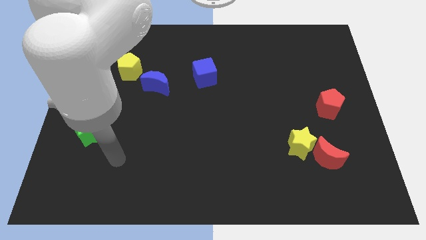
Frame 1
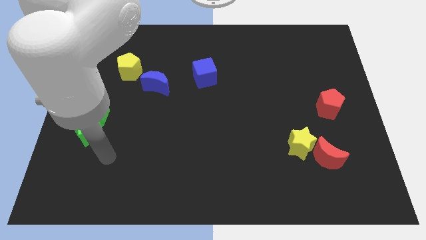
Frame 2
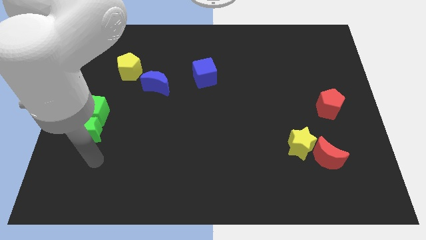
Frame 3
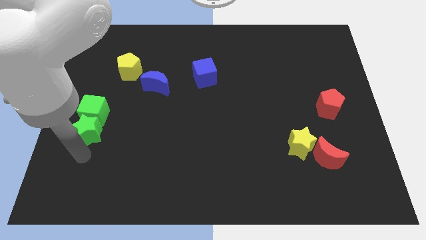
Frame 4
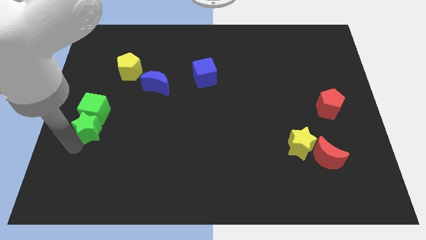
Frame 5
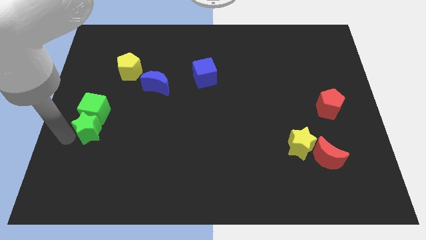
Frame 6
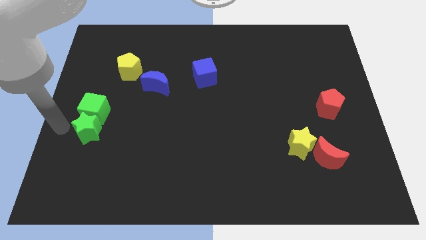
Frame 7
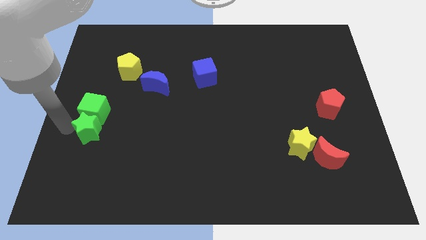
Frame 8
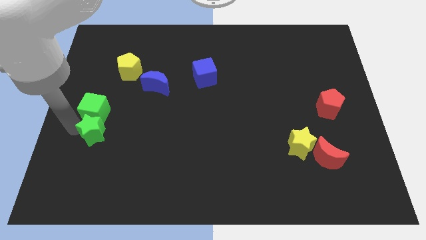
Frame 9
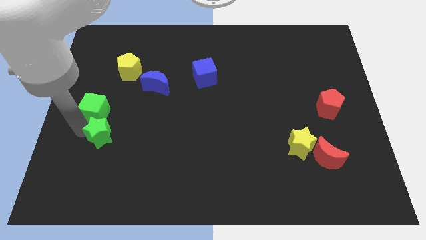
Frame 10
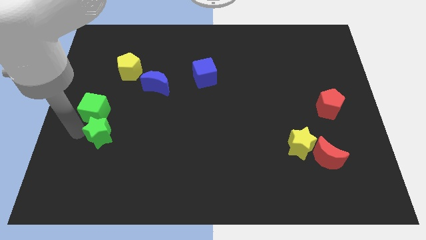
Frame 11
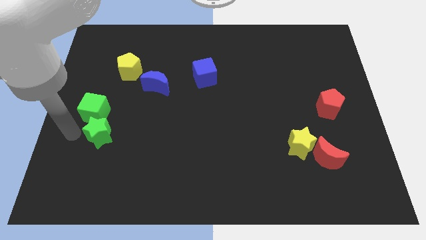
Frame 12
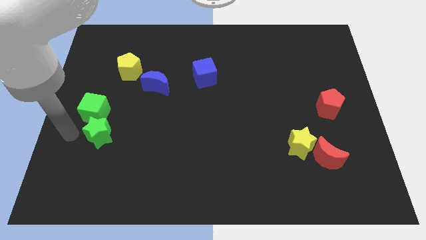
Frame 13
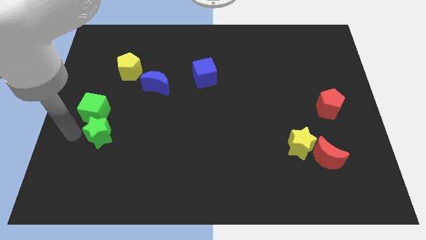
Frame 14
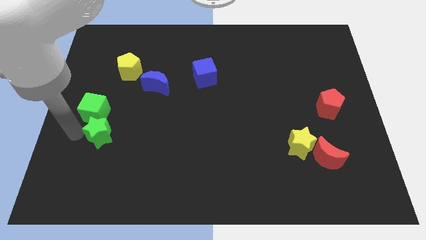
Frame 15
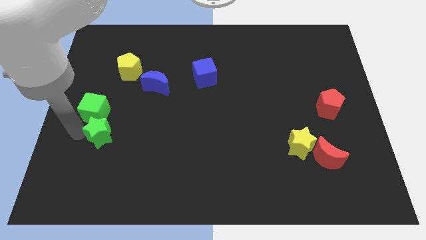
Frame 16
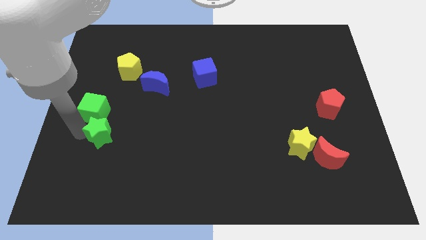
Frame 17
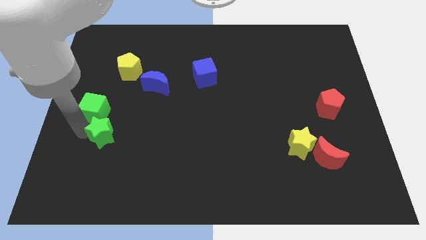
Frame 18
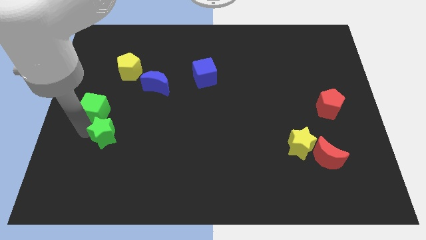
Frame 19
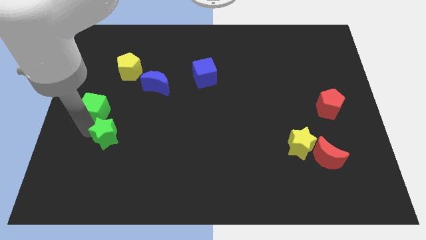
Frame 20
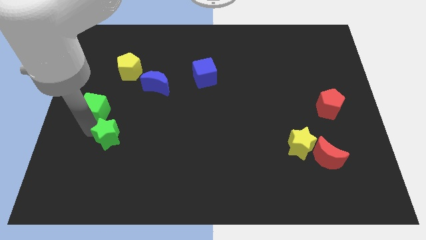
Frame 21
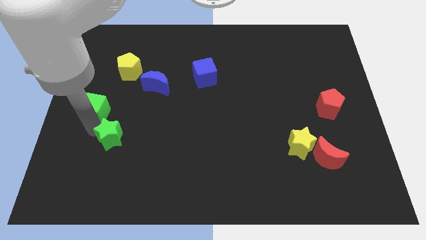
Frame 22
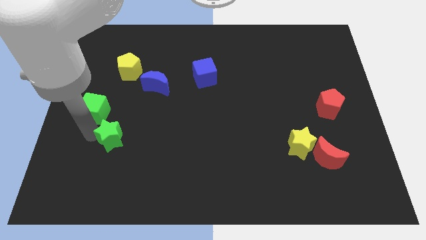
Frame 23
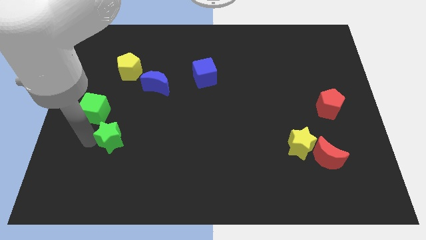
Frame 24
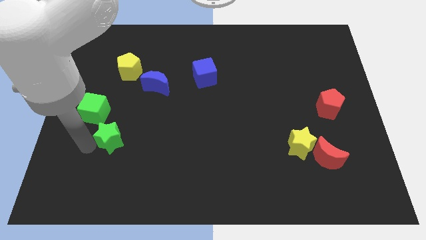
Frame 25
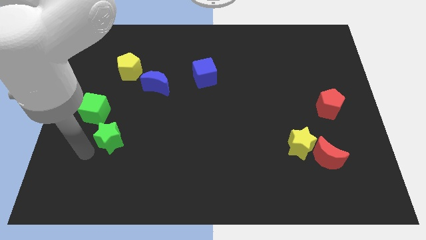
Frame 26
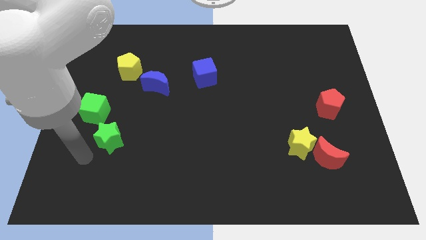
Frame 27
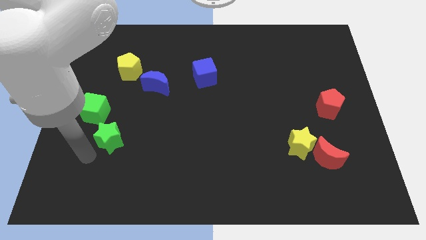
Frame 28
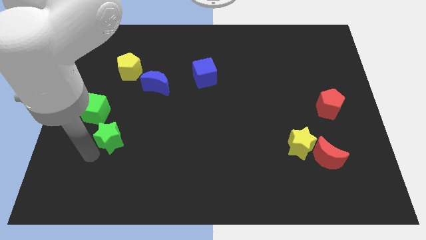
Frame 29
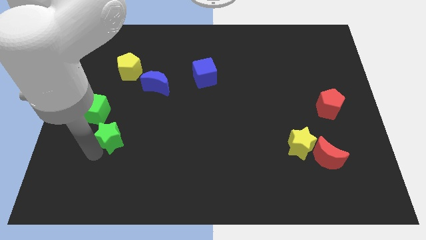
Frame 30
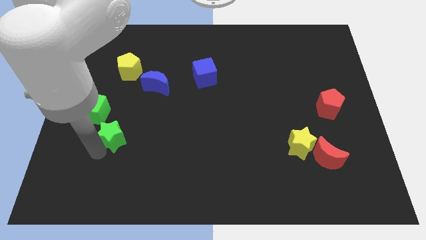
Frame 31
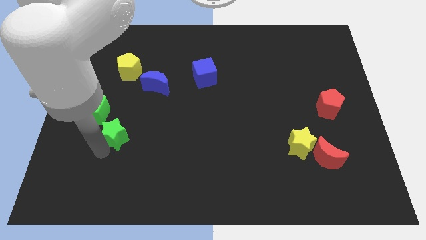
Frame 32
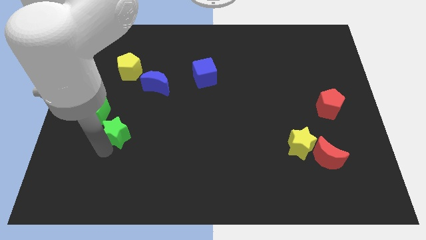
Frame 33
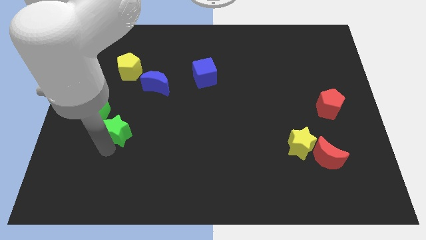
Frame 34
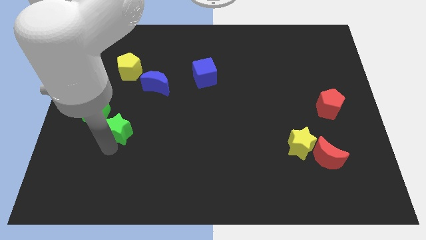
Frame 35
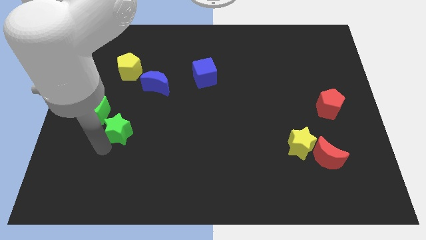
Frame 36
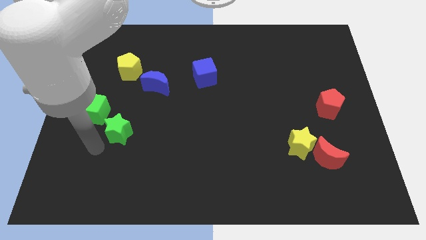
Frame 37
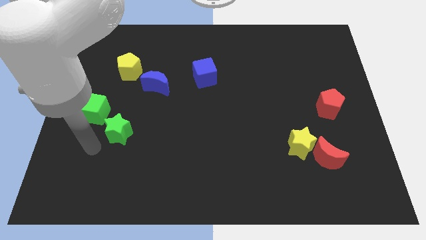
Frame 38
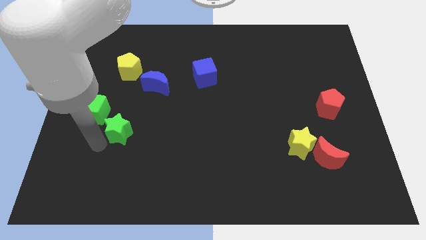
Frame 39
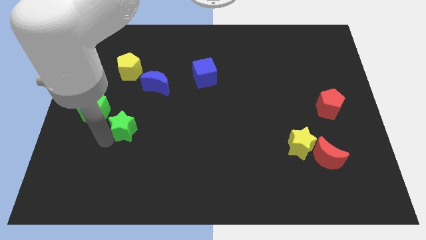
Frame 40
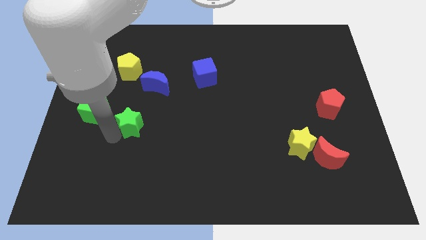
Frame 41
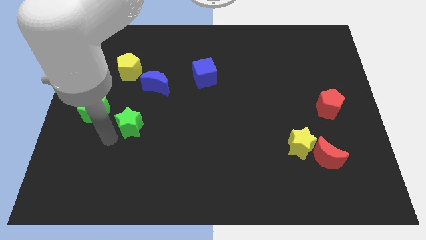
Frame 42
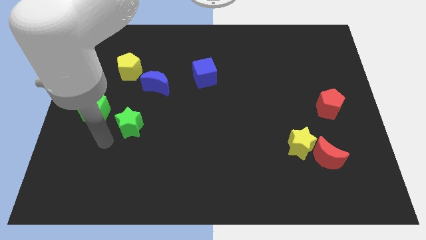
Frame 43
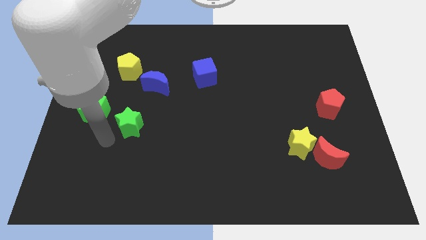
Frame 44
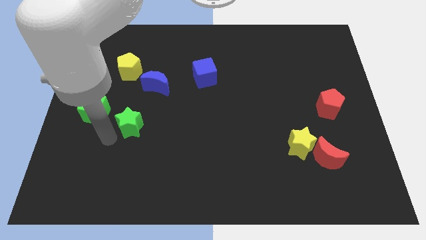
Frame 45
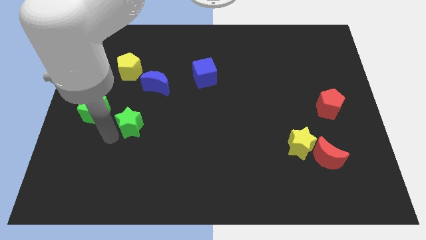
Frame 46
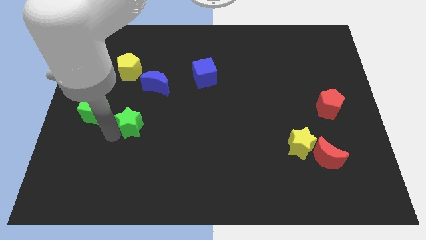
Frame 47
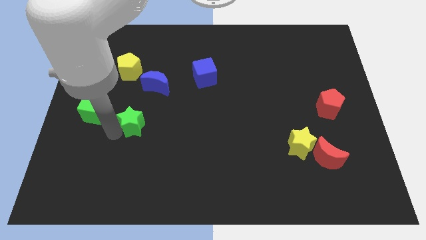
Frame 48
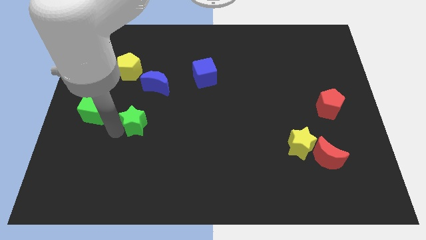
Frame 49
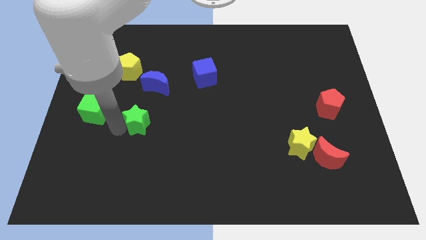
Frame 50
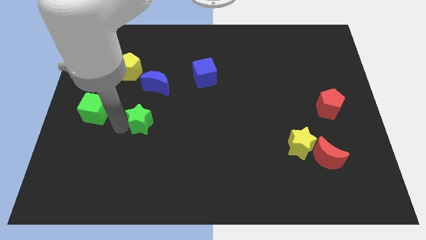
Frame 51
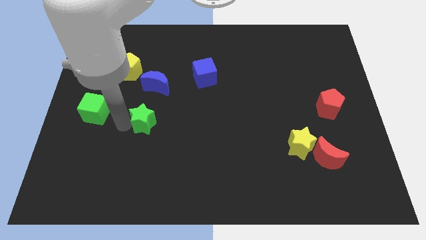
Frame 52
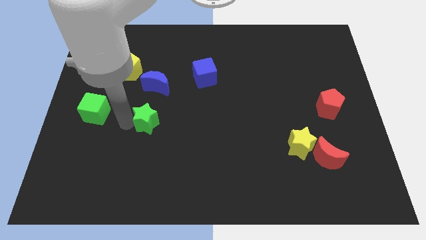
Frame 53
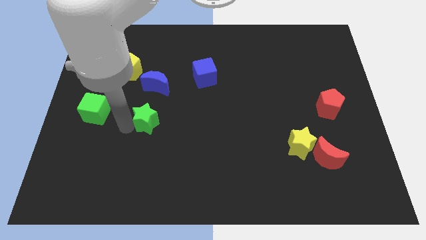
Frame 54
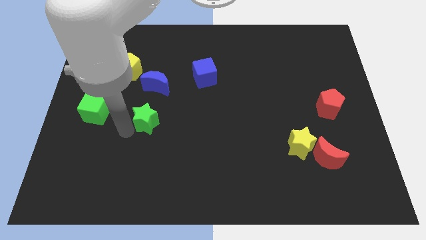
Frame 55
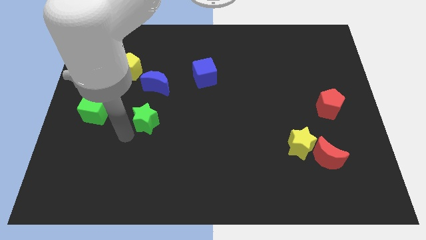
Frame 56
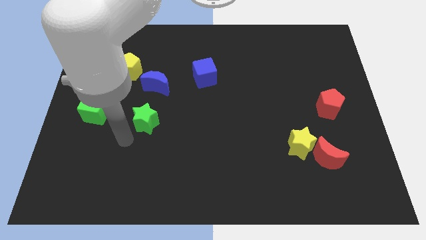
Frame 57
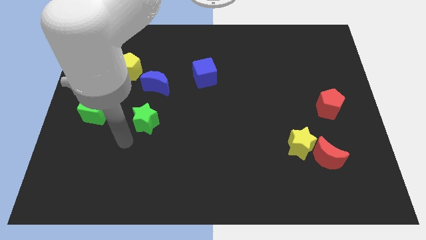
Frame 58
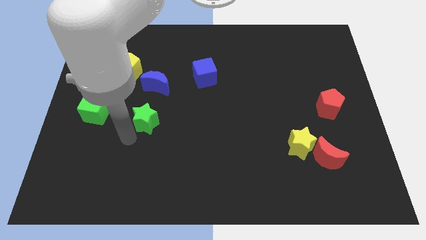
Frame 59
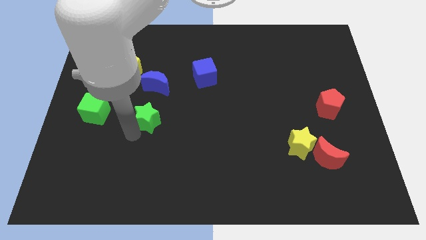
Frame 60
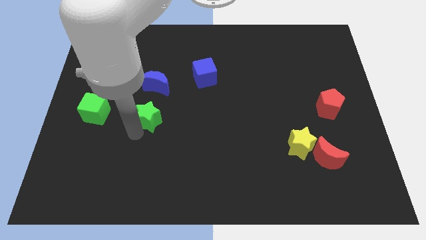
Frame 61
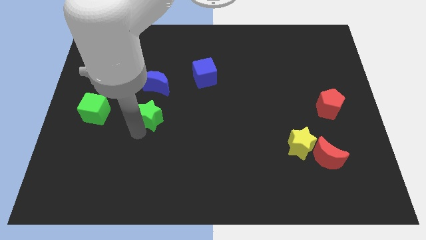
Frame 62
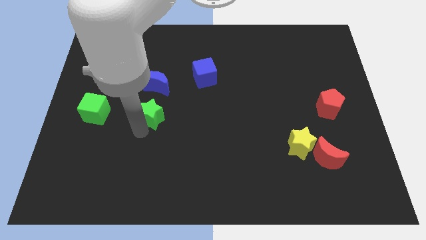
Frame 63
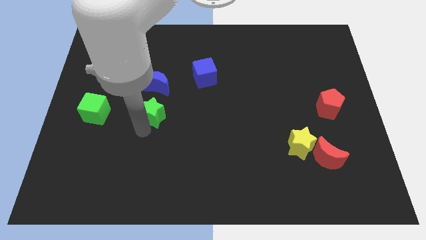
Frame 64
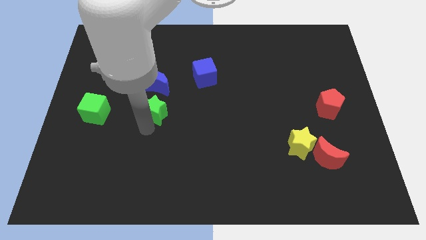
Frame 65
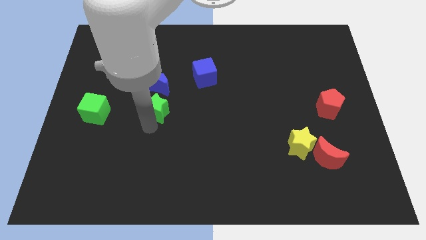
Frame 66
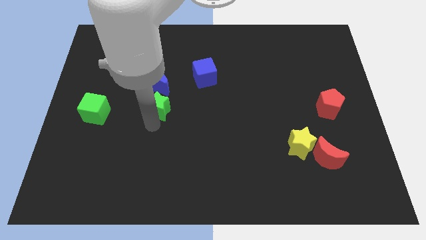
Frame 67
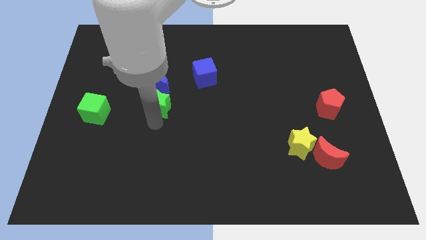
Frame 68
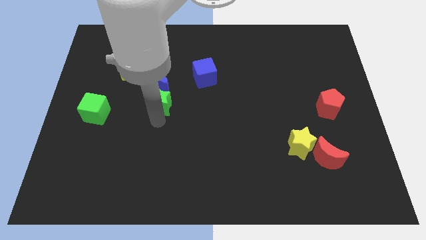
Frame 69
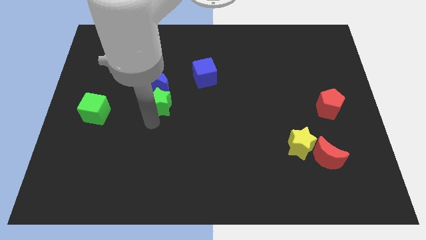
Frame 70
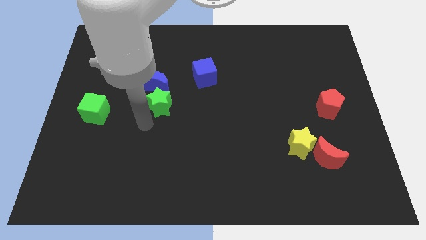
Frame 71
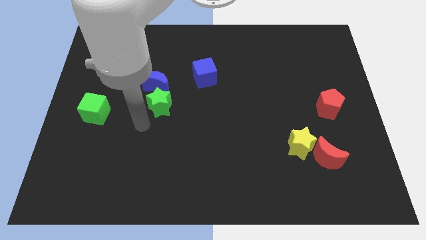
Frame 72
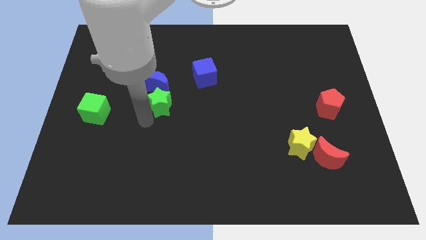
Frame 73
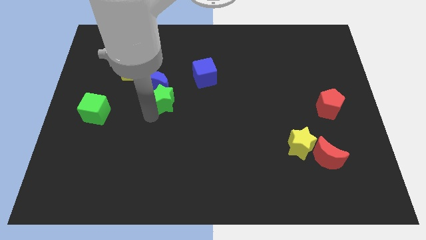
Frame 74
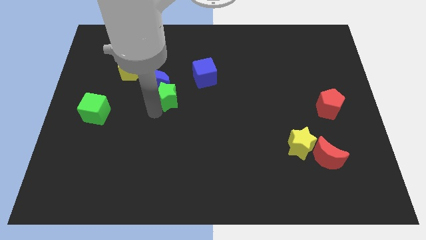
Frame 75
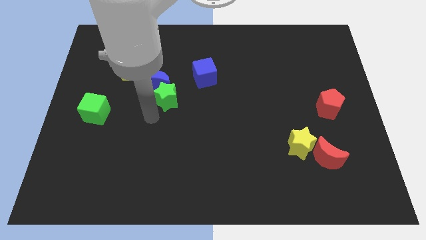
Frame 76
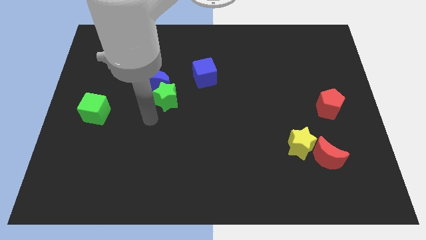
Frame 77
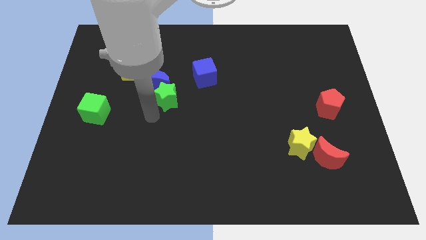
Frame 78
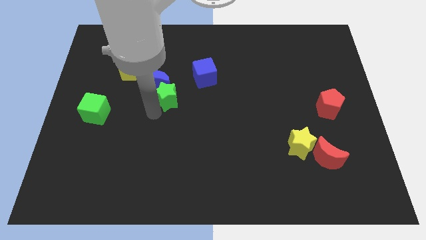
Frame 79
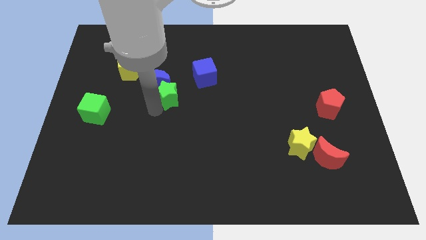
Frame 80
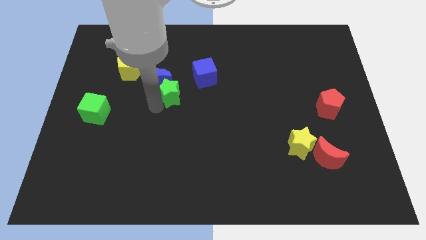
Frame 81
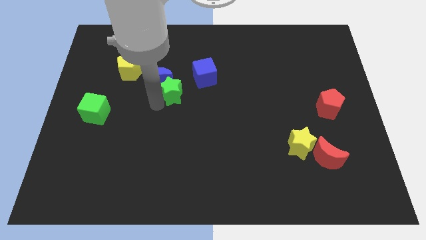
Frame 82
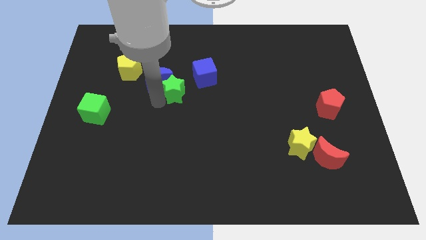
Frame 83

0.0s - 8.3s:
push the green star up and right
